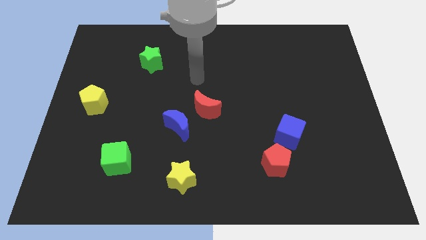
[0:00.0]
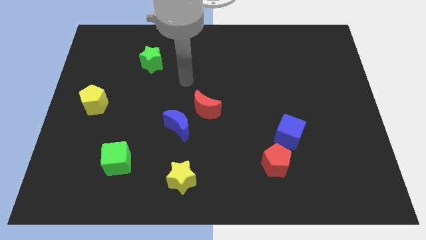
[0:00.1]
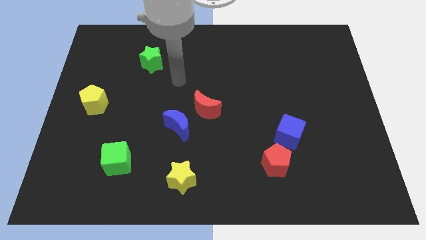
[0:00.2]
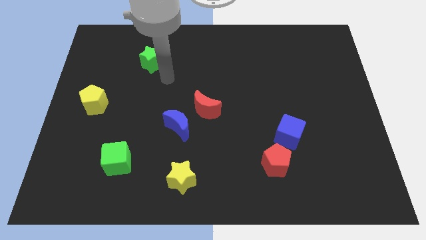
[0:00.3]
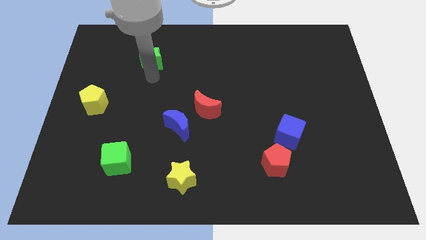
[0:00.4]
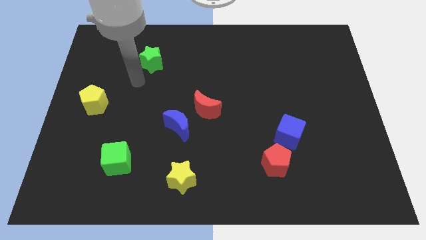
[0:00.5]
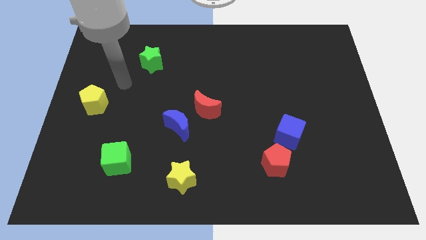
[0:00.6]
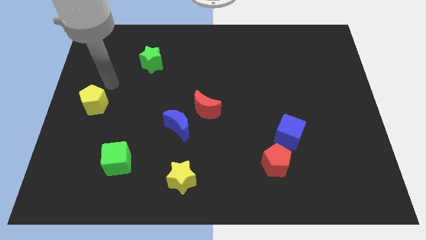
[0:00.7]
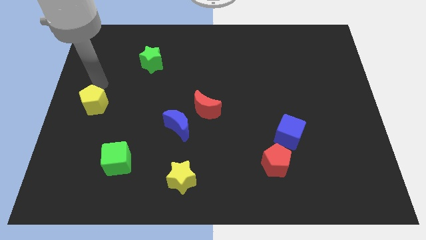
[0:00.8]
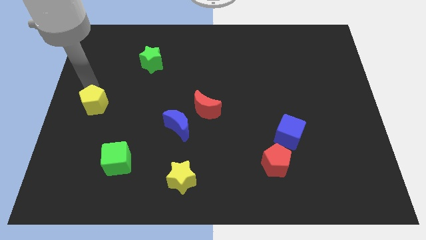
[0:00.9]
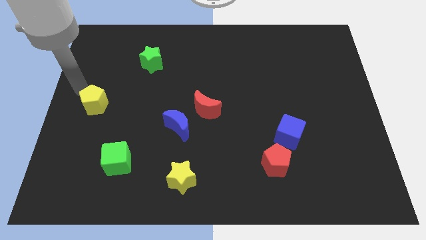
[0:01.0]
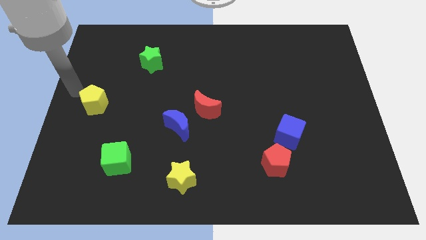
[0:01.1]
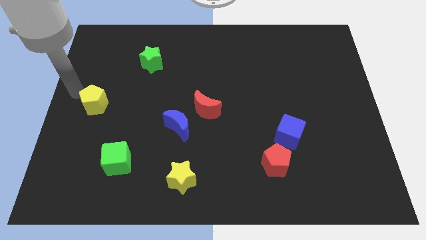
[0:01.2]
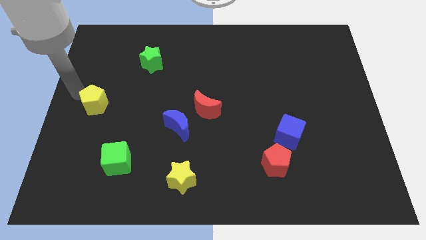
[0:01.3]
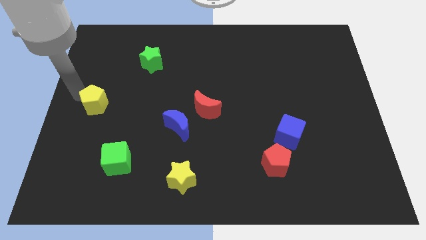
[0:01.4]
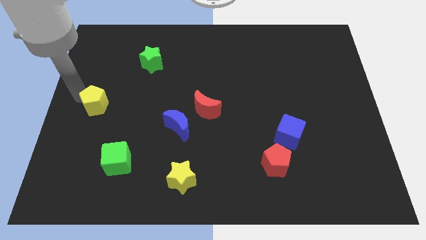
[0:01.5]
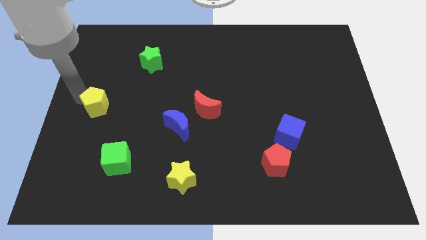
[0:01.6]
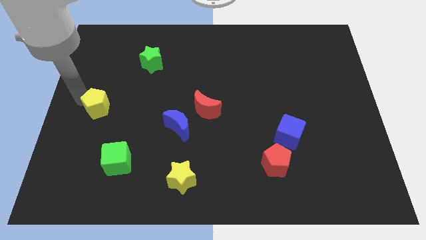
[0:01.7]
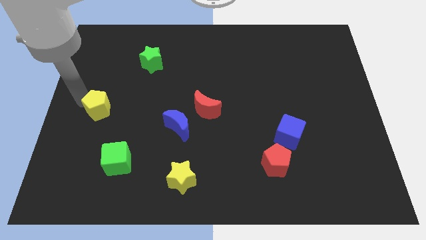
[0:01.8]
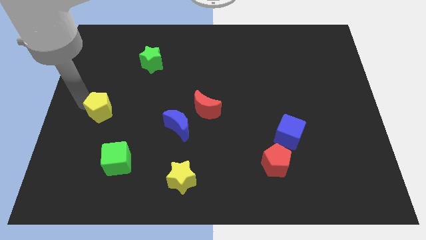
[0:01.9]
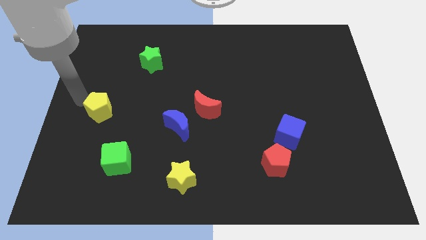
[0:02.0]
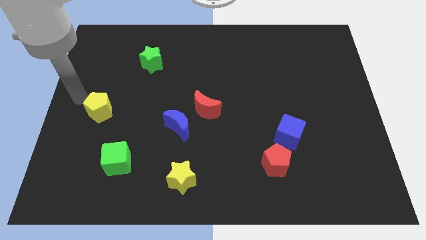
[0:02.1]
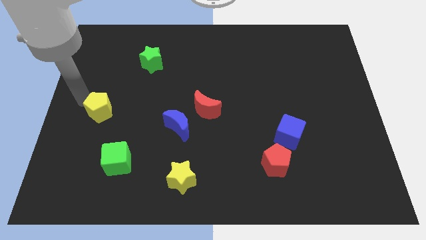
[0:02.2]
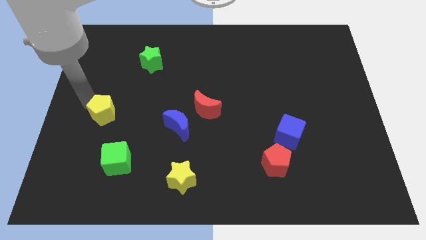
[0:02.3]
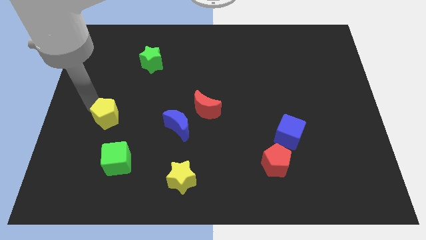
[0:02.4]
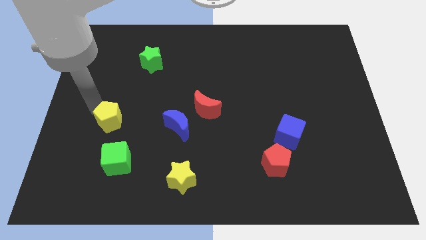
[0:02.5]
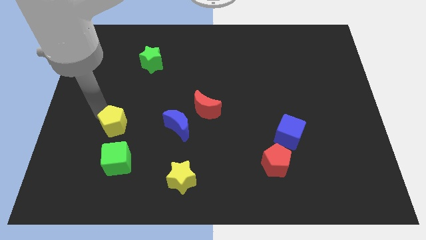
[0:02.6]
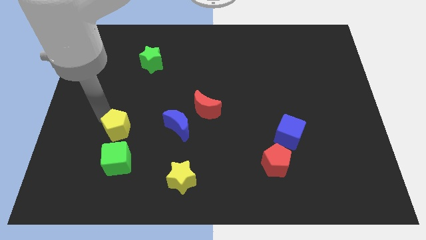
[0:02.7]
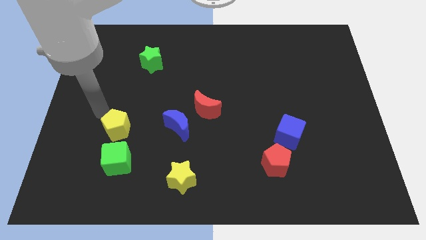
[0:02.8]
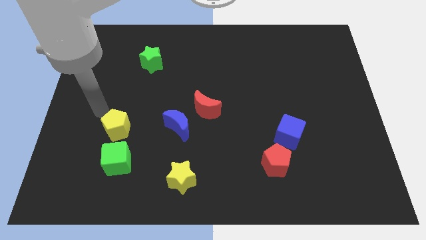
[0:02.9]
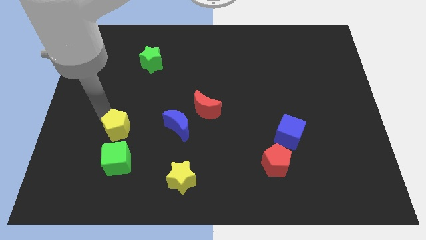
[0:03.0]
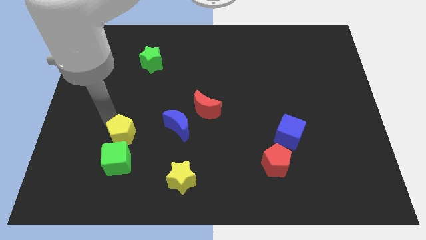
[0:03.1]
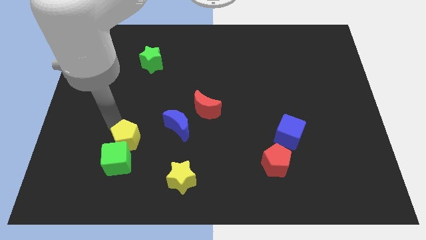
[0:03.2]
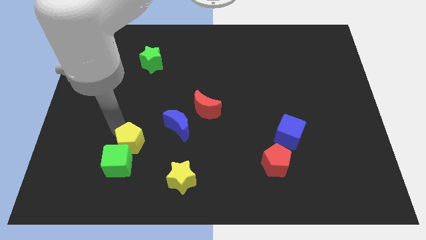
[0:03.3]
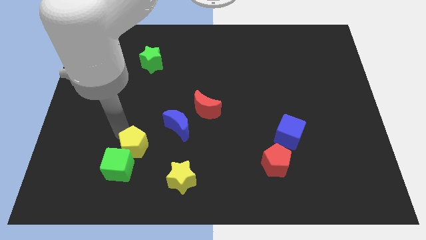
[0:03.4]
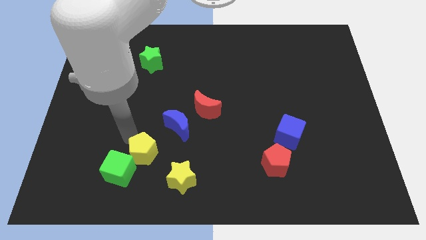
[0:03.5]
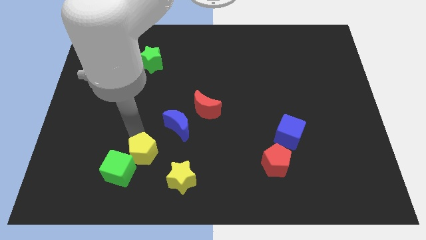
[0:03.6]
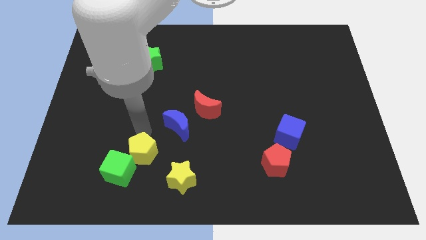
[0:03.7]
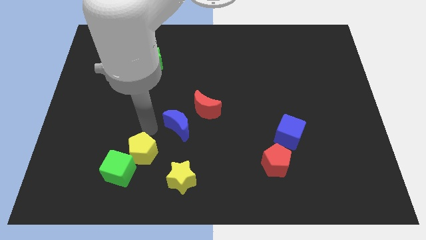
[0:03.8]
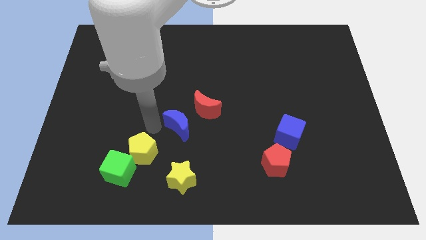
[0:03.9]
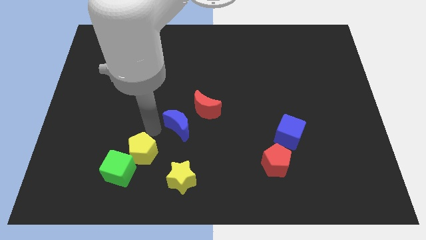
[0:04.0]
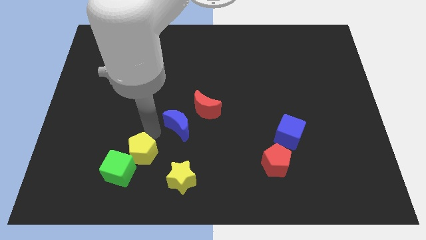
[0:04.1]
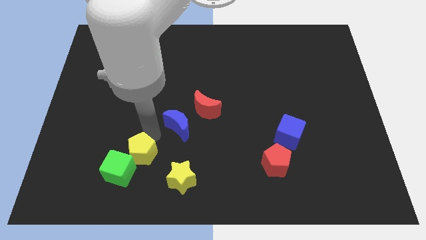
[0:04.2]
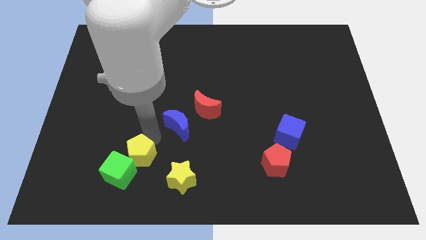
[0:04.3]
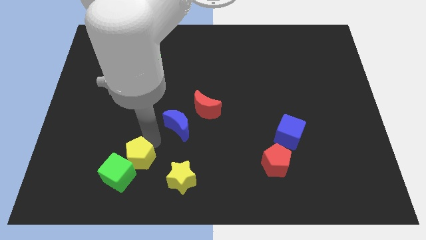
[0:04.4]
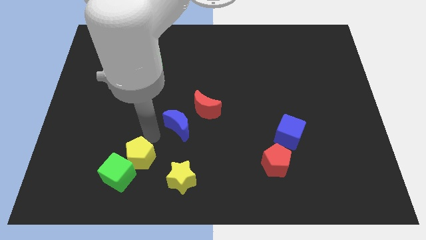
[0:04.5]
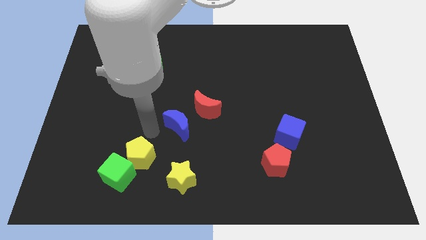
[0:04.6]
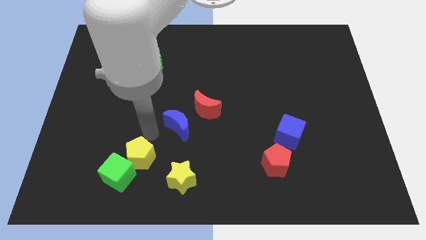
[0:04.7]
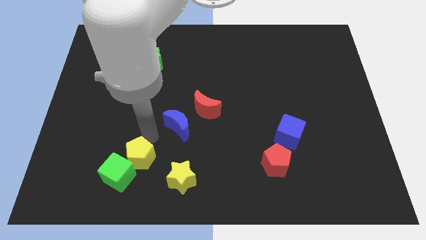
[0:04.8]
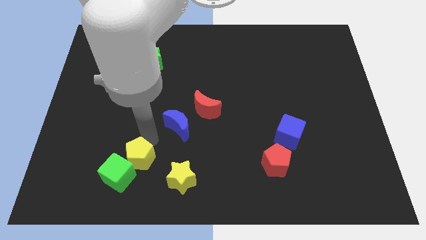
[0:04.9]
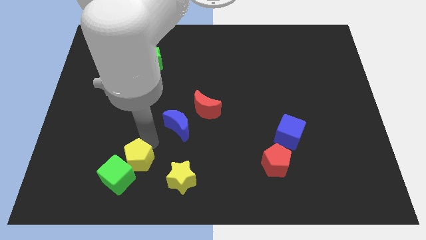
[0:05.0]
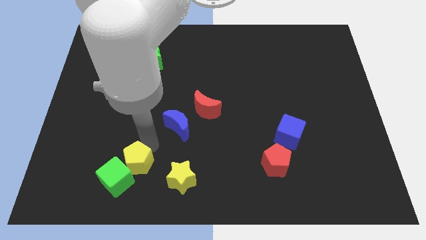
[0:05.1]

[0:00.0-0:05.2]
push the yellow pentagon to the left of the yellow star

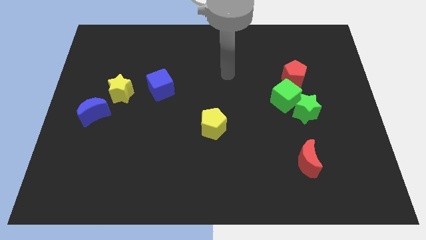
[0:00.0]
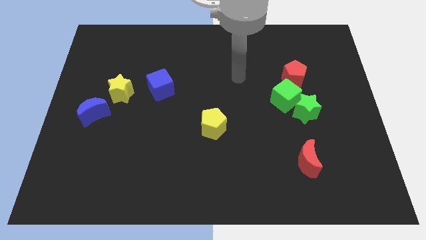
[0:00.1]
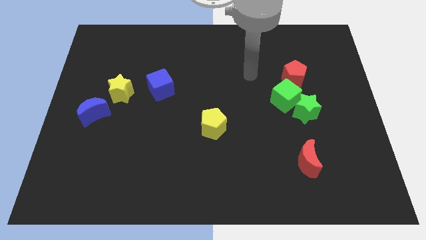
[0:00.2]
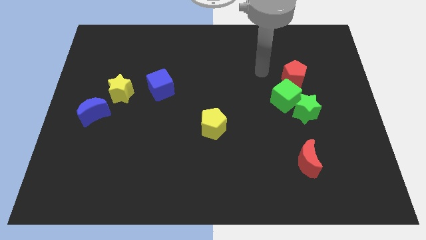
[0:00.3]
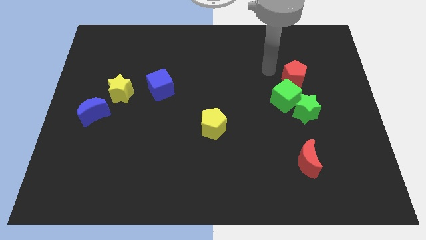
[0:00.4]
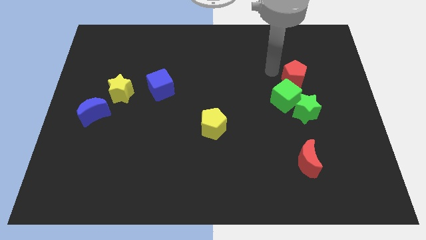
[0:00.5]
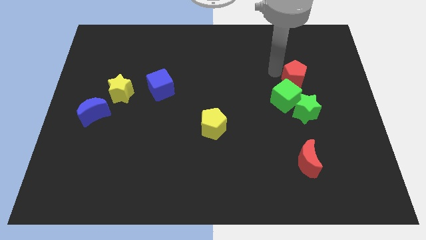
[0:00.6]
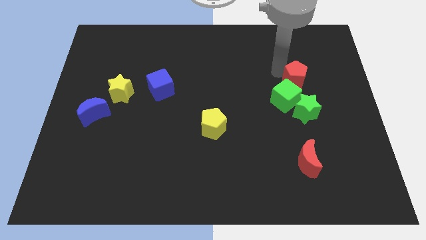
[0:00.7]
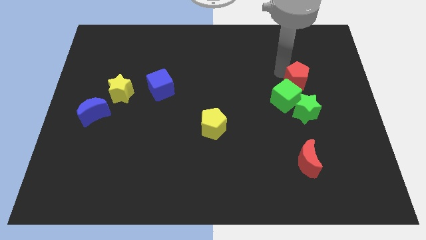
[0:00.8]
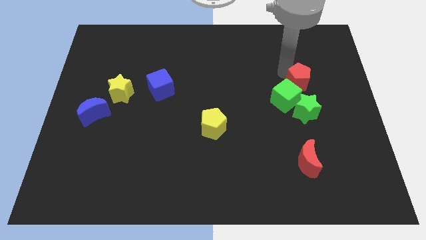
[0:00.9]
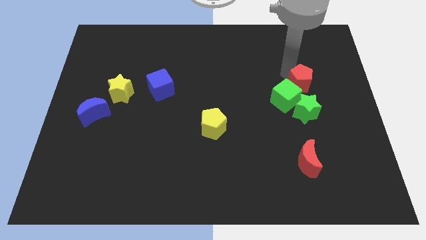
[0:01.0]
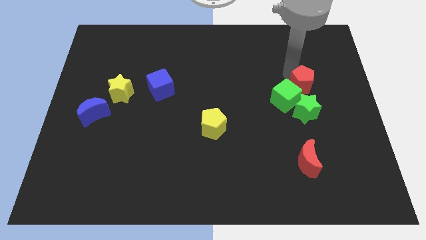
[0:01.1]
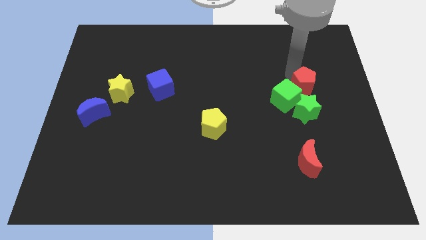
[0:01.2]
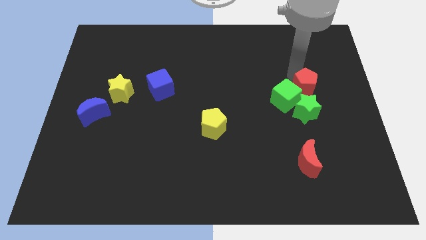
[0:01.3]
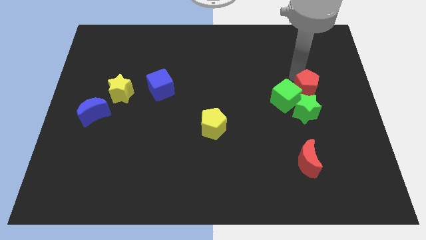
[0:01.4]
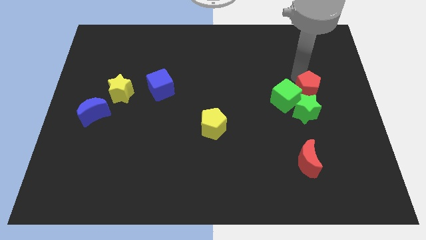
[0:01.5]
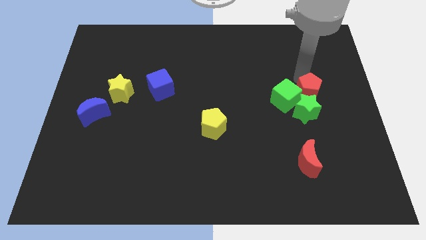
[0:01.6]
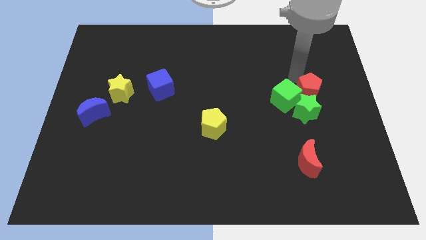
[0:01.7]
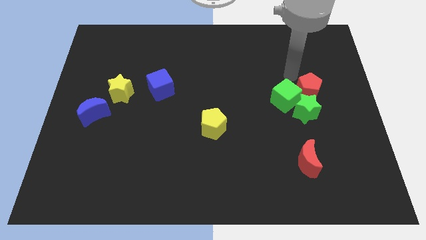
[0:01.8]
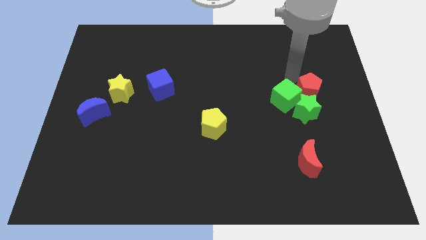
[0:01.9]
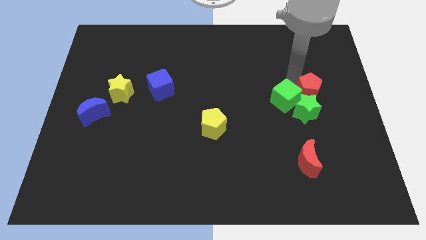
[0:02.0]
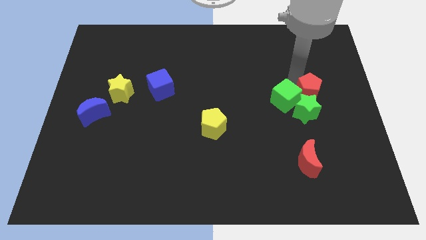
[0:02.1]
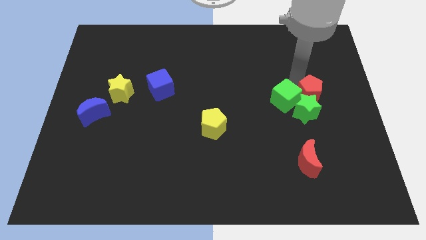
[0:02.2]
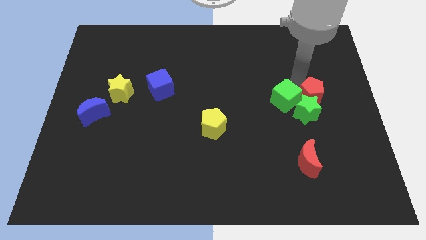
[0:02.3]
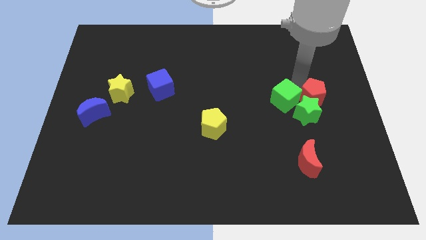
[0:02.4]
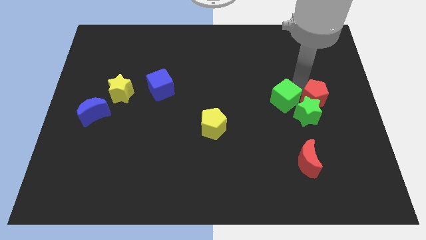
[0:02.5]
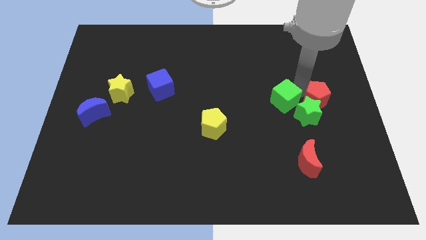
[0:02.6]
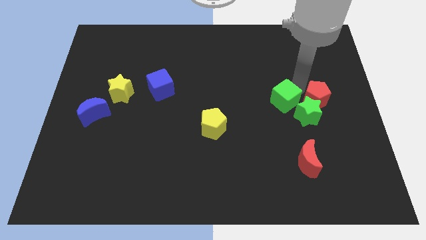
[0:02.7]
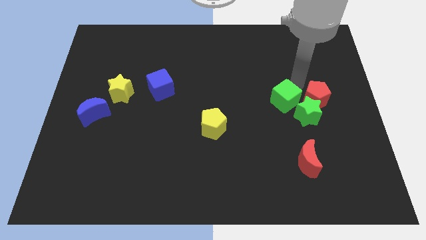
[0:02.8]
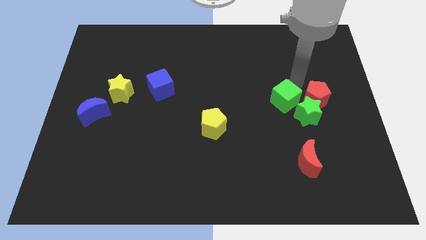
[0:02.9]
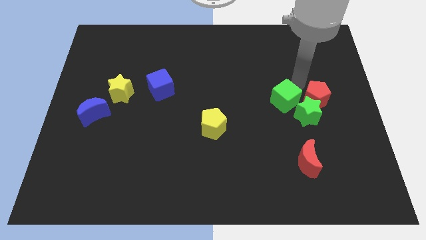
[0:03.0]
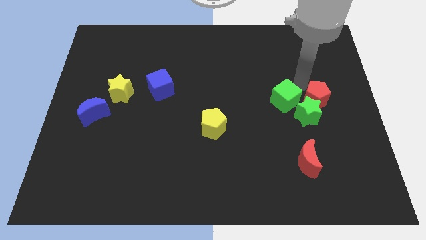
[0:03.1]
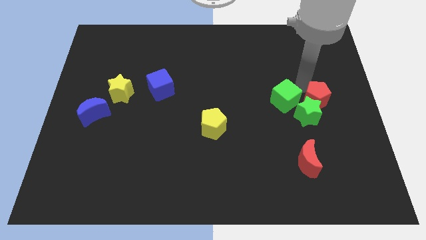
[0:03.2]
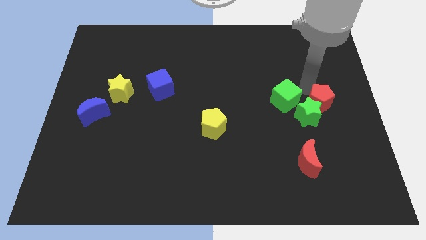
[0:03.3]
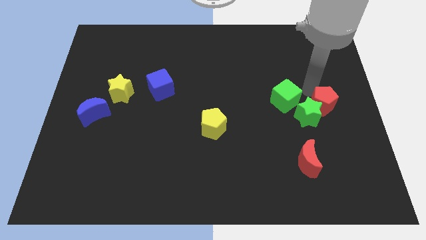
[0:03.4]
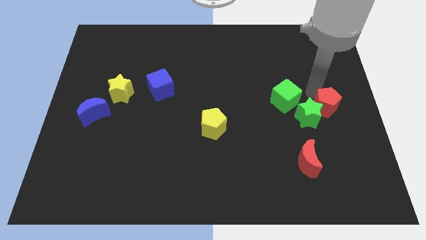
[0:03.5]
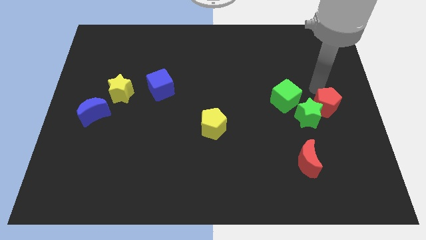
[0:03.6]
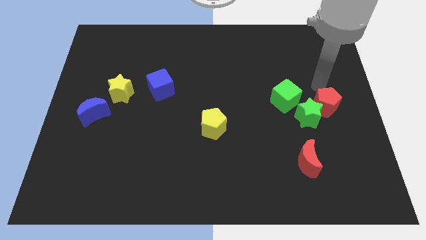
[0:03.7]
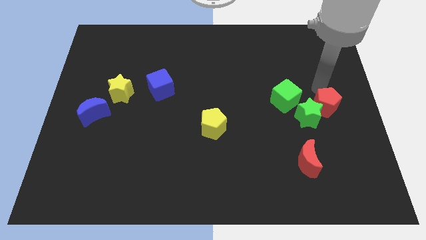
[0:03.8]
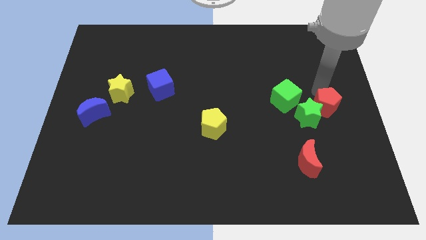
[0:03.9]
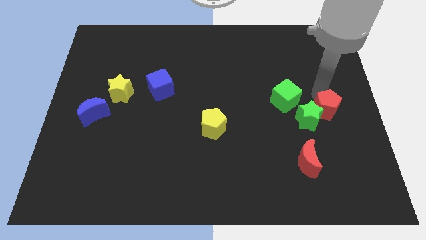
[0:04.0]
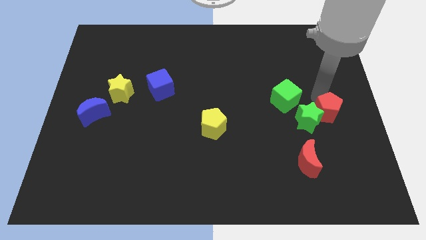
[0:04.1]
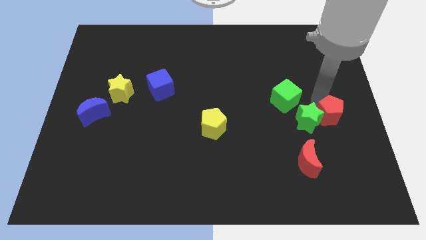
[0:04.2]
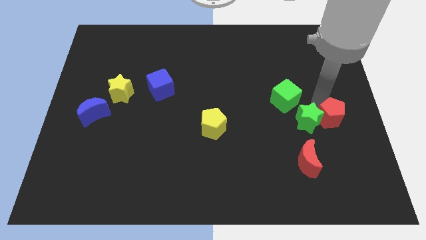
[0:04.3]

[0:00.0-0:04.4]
slide the red pentagon to the bottom right side of the green star
